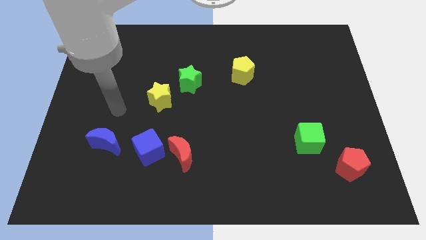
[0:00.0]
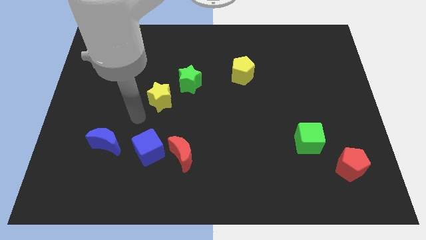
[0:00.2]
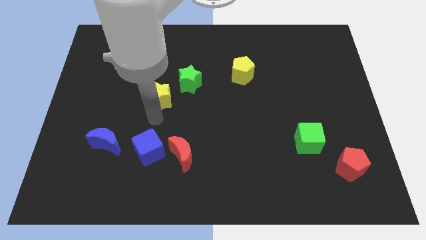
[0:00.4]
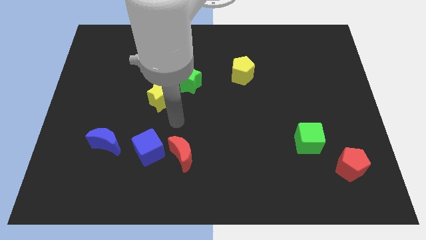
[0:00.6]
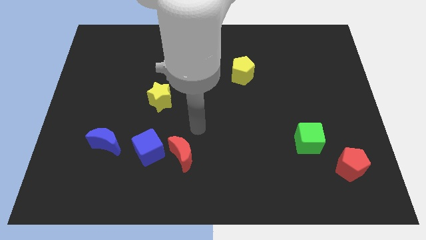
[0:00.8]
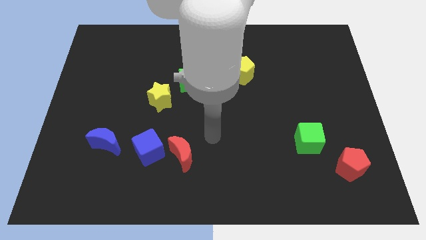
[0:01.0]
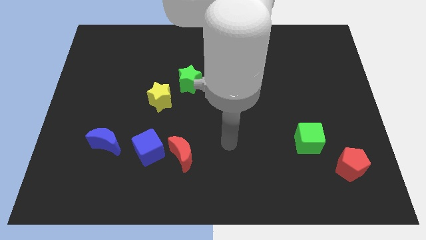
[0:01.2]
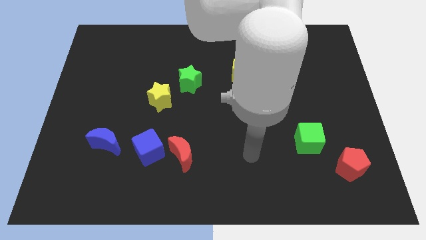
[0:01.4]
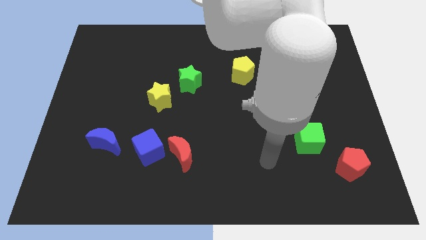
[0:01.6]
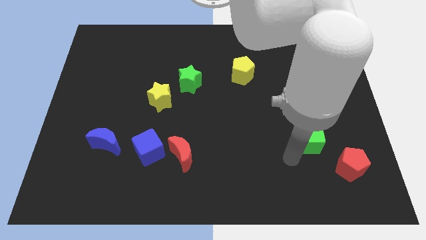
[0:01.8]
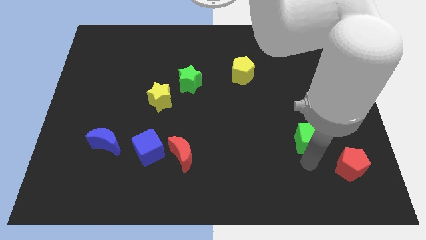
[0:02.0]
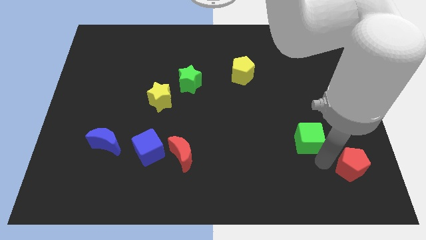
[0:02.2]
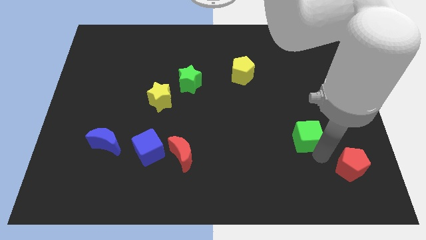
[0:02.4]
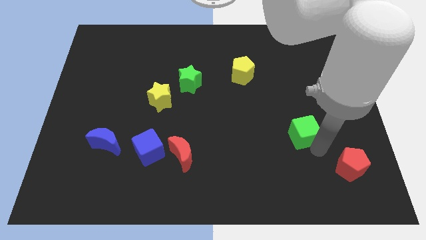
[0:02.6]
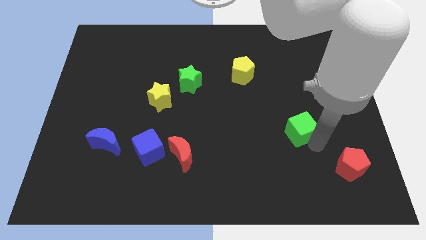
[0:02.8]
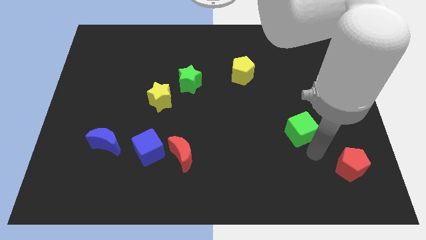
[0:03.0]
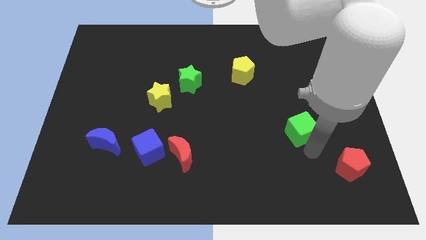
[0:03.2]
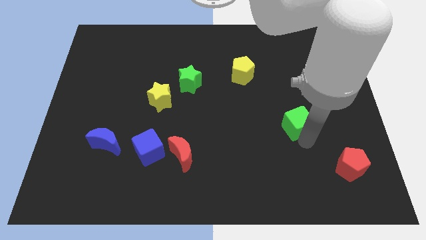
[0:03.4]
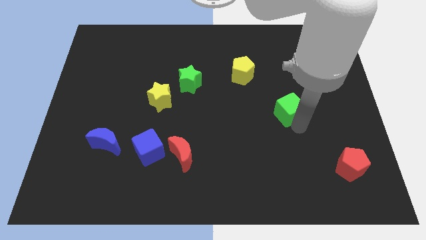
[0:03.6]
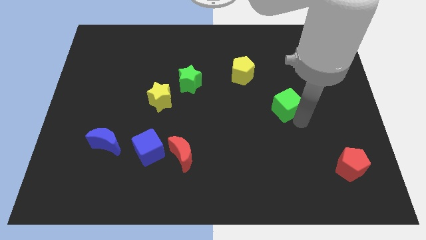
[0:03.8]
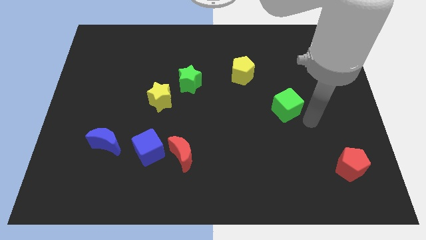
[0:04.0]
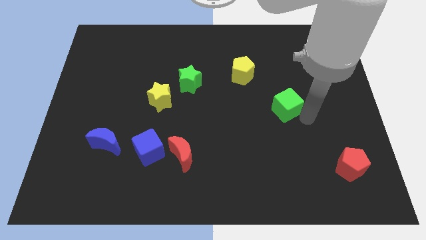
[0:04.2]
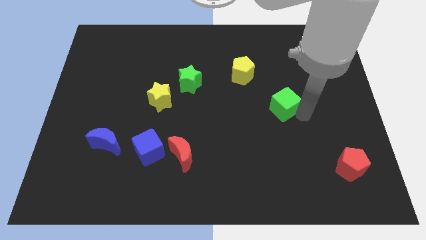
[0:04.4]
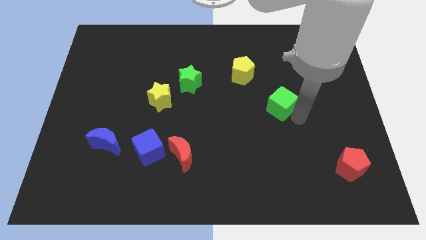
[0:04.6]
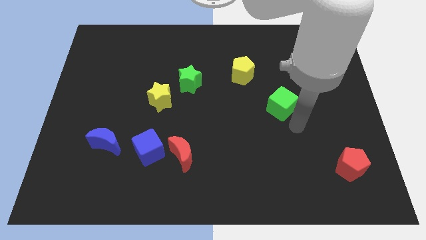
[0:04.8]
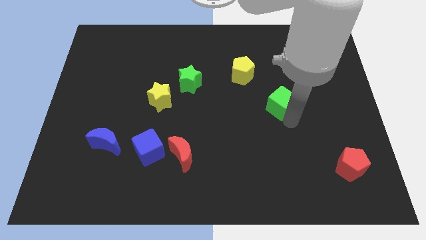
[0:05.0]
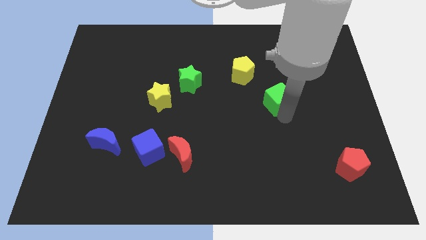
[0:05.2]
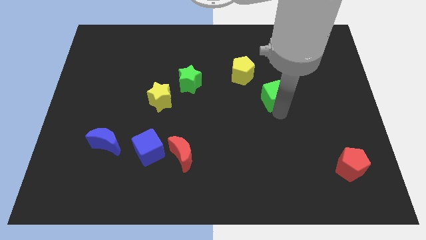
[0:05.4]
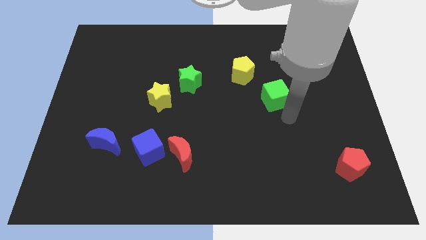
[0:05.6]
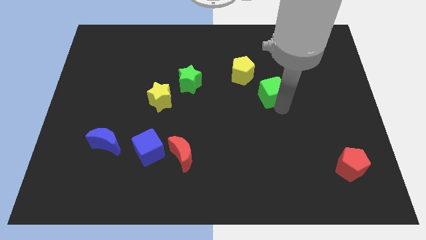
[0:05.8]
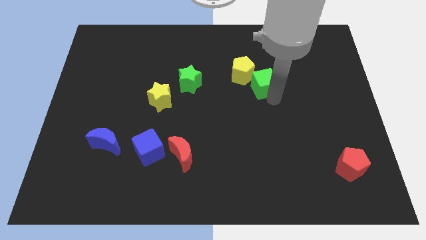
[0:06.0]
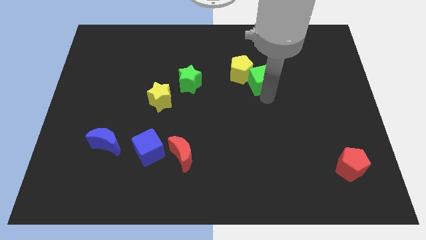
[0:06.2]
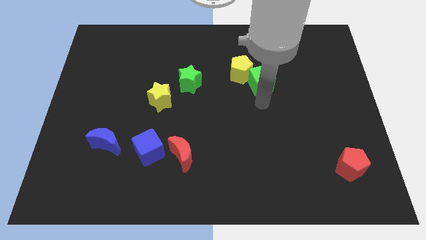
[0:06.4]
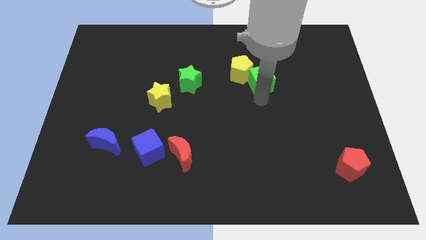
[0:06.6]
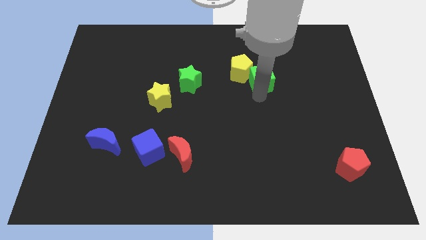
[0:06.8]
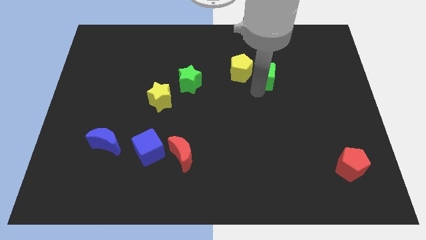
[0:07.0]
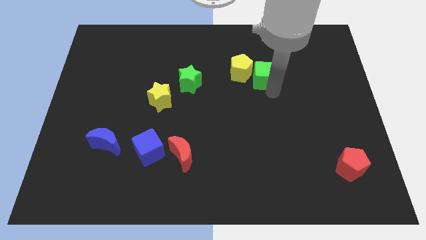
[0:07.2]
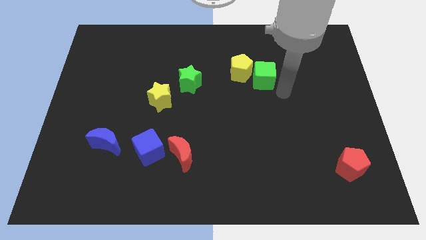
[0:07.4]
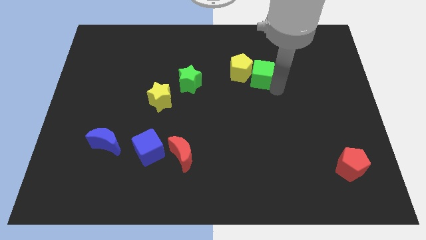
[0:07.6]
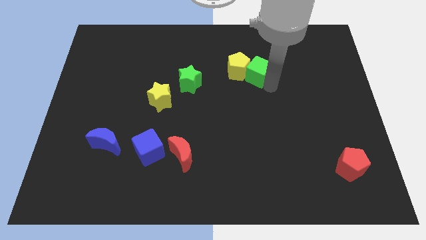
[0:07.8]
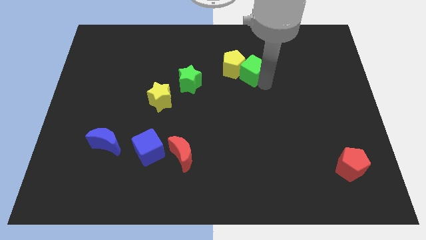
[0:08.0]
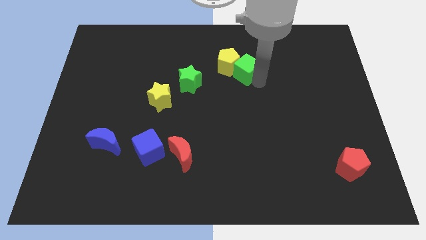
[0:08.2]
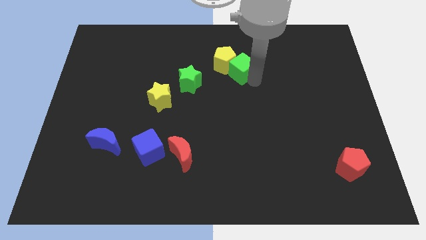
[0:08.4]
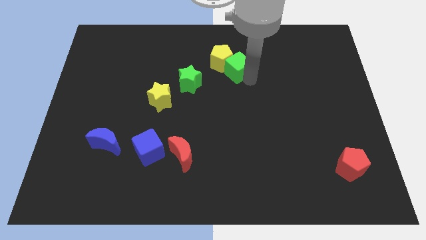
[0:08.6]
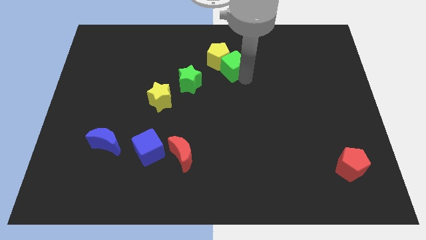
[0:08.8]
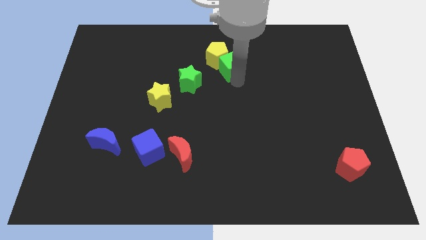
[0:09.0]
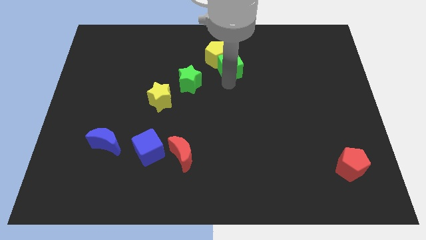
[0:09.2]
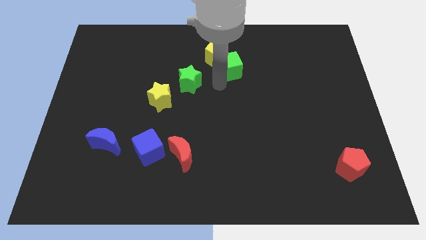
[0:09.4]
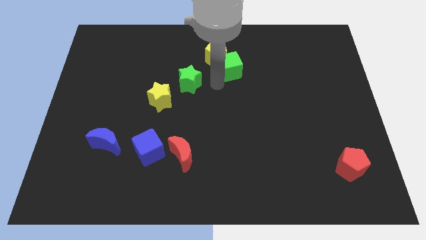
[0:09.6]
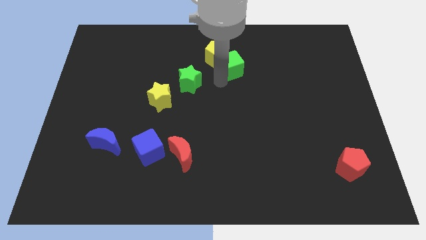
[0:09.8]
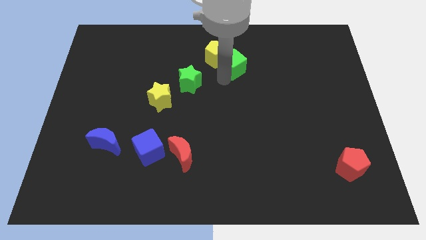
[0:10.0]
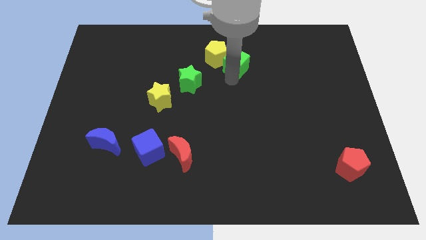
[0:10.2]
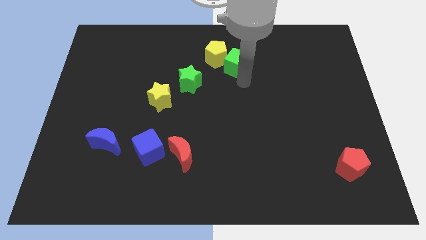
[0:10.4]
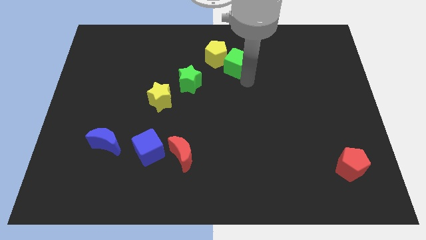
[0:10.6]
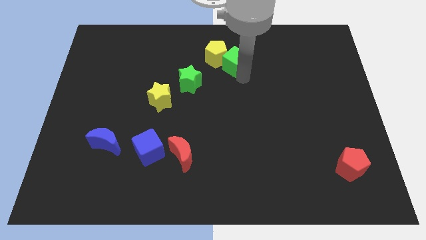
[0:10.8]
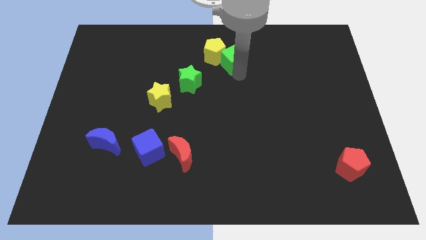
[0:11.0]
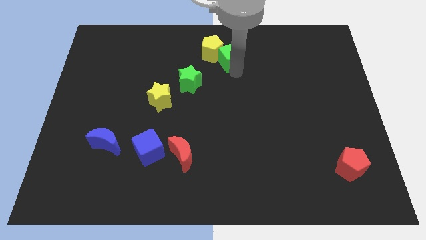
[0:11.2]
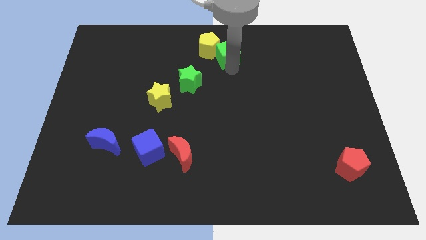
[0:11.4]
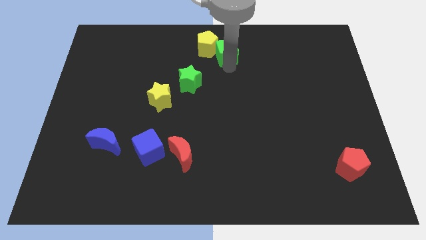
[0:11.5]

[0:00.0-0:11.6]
push the green cube to the top
